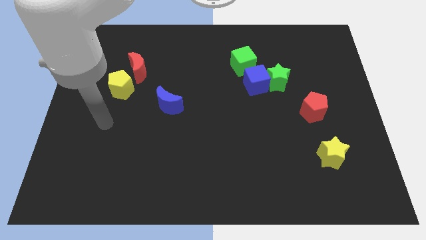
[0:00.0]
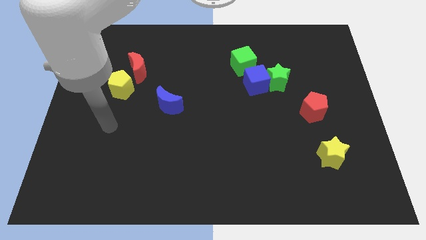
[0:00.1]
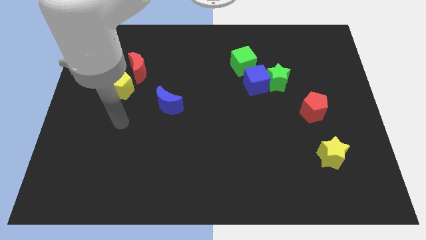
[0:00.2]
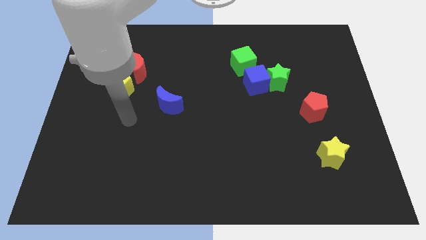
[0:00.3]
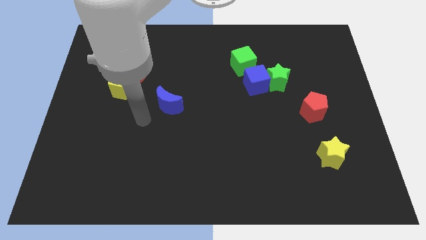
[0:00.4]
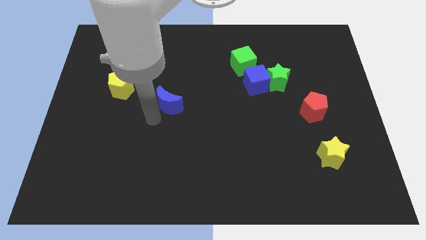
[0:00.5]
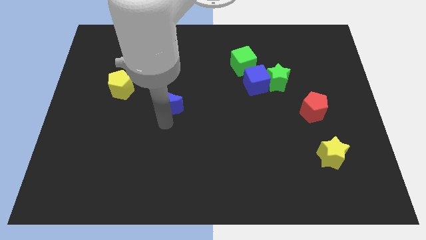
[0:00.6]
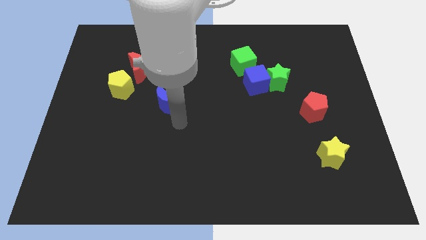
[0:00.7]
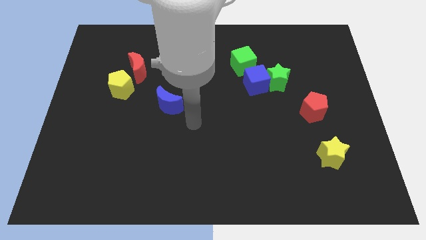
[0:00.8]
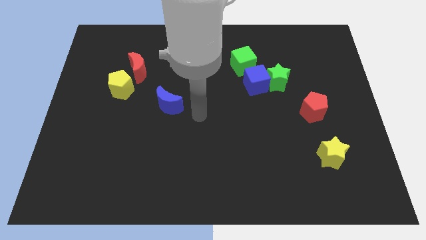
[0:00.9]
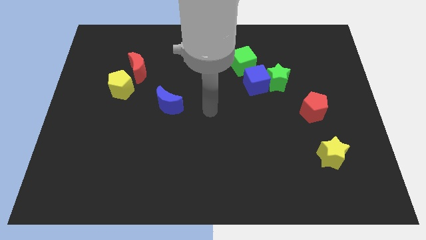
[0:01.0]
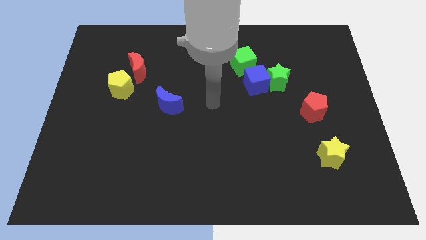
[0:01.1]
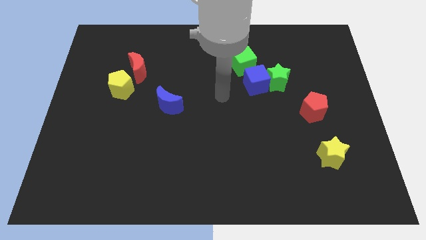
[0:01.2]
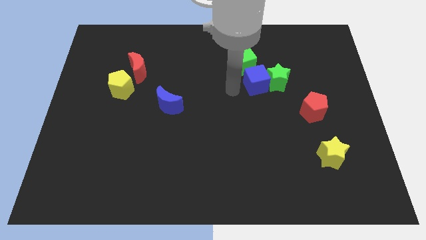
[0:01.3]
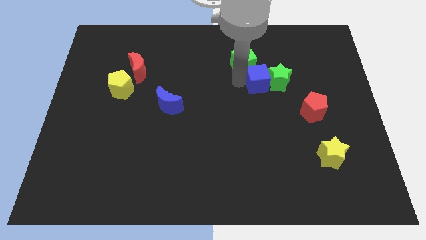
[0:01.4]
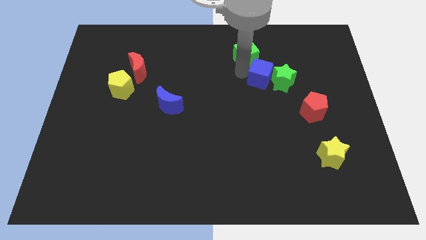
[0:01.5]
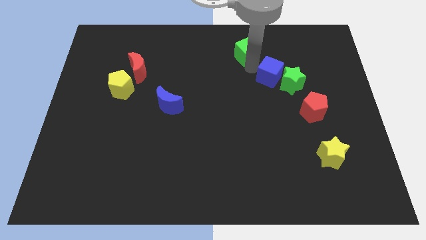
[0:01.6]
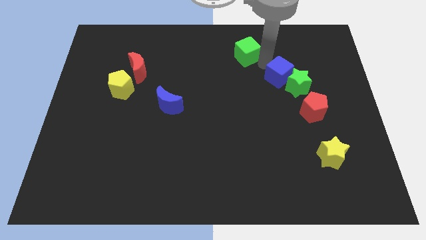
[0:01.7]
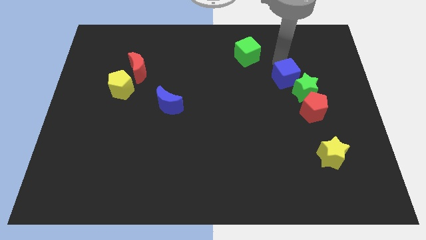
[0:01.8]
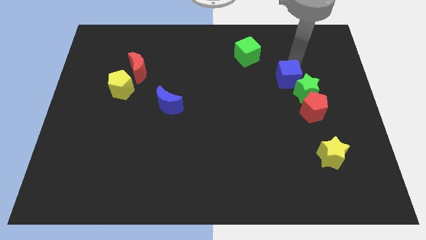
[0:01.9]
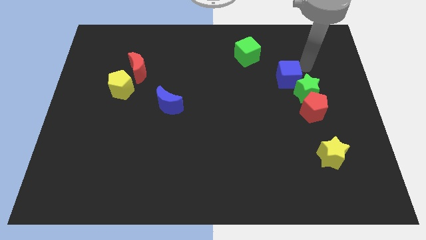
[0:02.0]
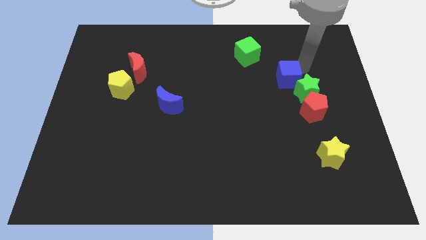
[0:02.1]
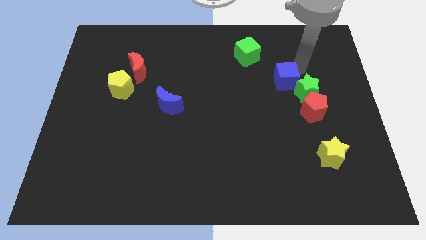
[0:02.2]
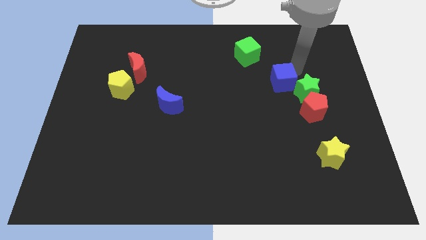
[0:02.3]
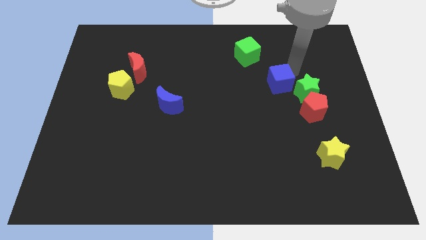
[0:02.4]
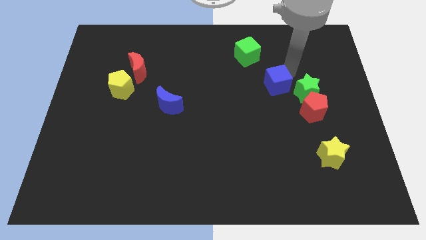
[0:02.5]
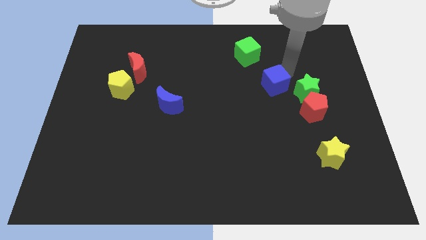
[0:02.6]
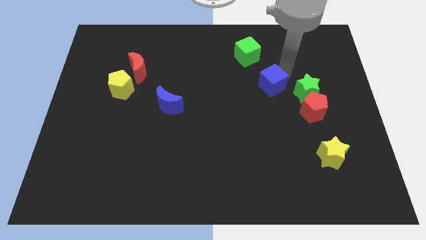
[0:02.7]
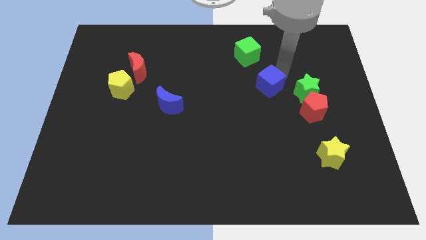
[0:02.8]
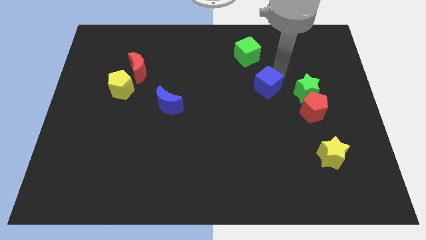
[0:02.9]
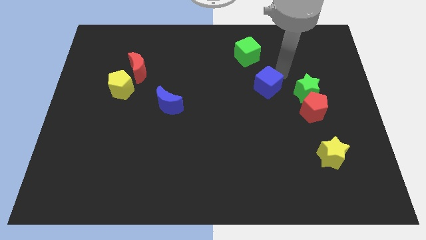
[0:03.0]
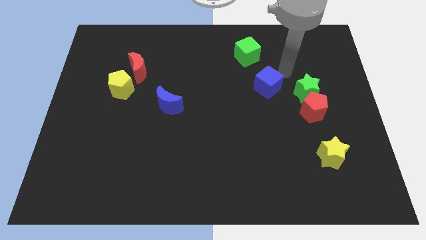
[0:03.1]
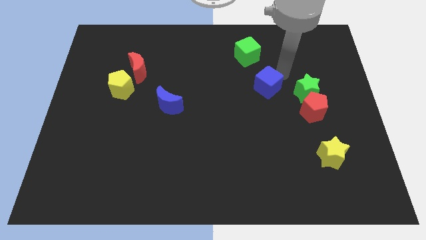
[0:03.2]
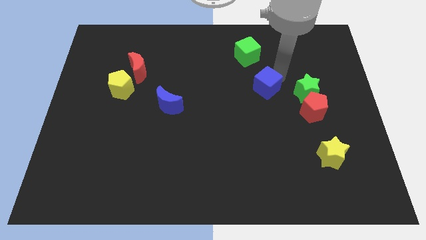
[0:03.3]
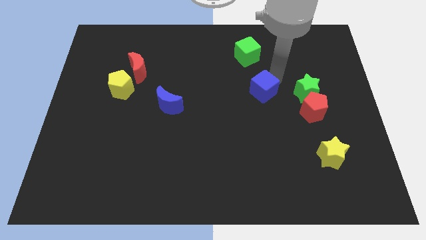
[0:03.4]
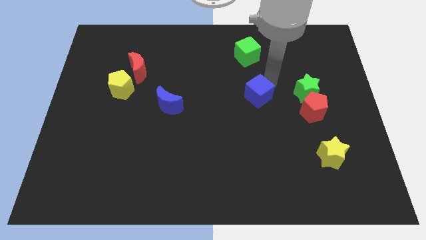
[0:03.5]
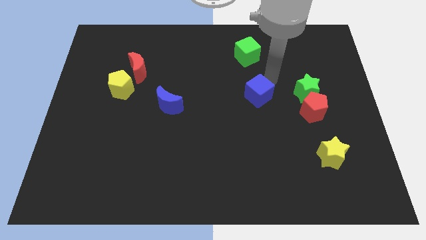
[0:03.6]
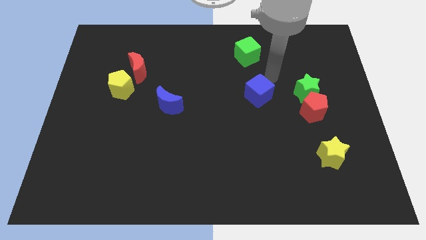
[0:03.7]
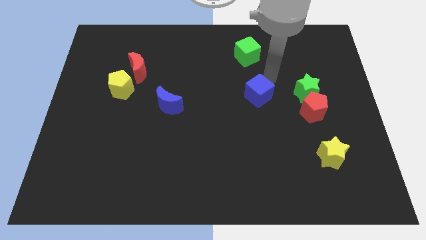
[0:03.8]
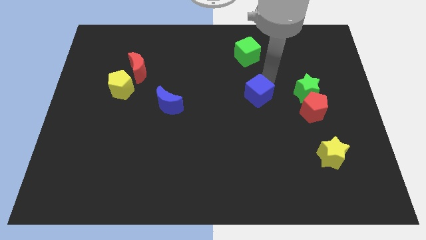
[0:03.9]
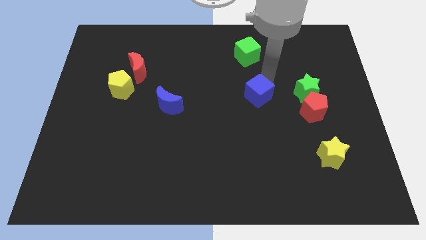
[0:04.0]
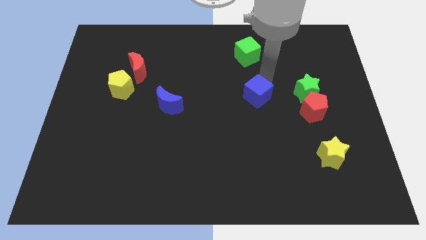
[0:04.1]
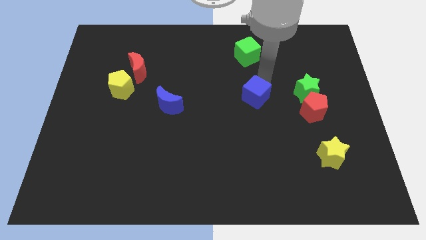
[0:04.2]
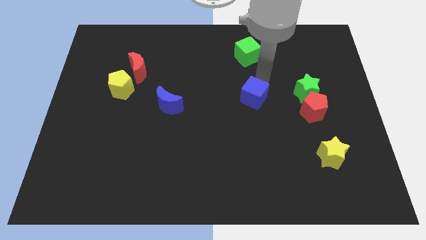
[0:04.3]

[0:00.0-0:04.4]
separate the blue cube from the green star and green cube

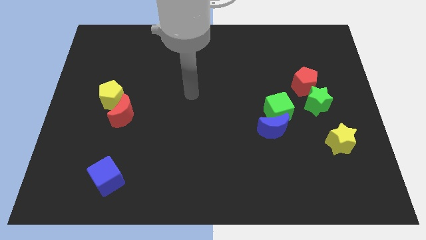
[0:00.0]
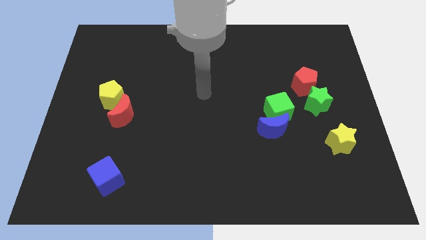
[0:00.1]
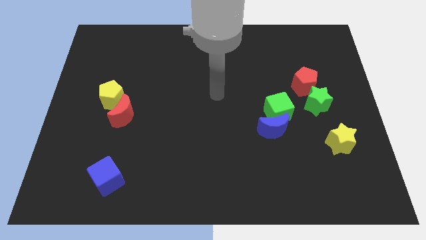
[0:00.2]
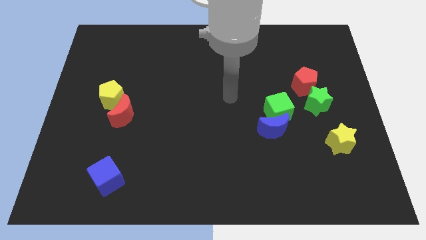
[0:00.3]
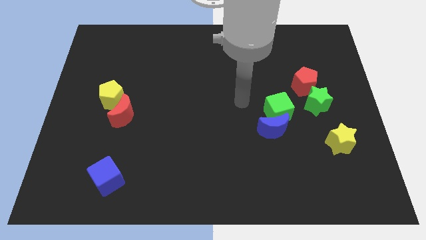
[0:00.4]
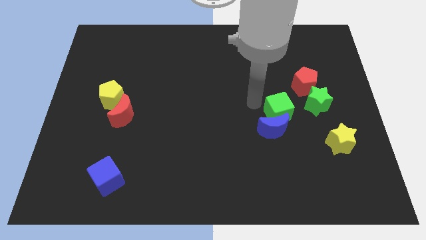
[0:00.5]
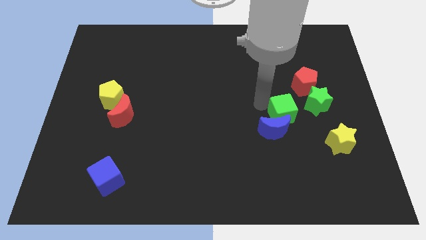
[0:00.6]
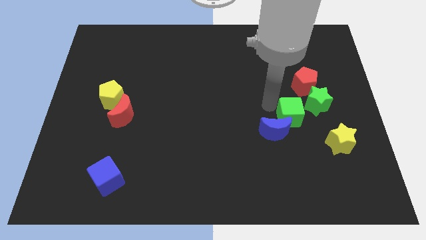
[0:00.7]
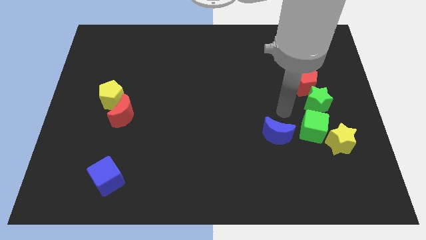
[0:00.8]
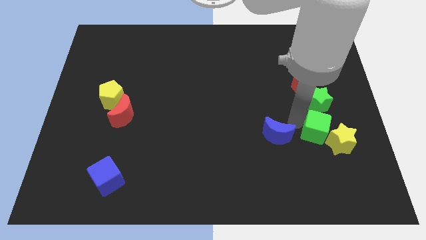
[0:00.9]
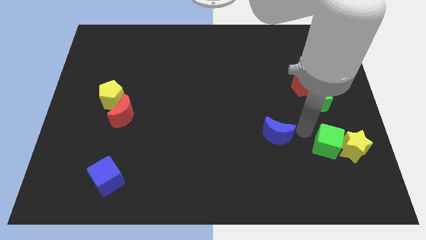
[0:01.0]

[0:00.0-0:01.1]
move the blue moon away from the green cube

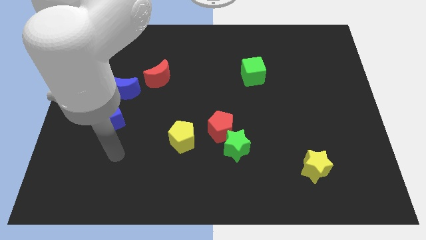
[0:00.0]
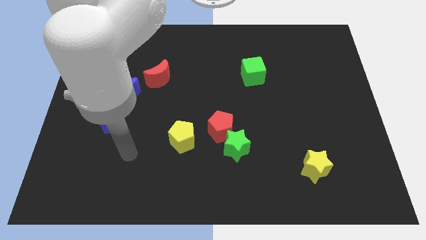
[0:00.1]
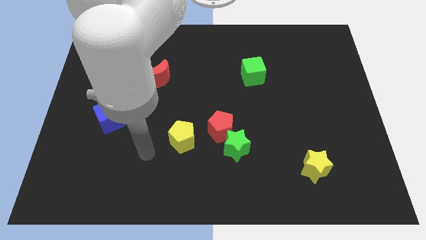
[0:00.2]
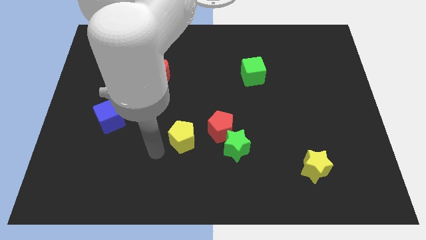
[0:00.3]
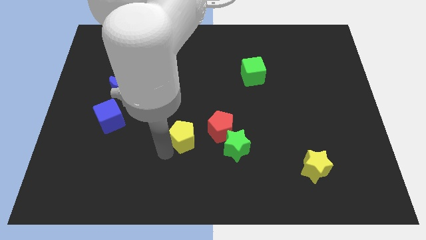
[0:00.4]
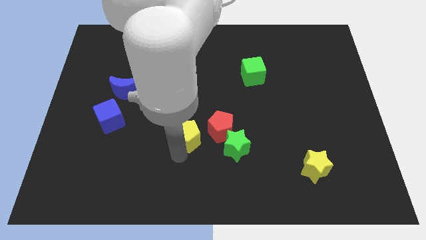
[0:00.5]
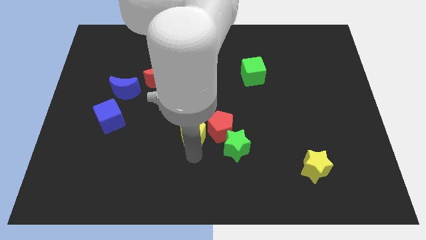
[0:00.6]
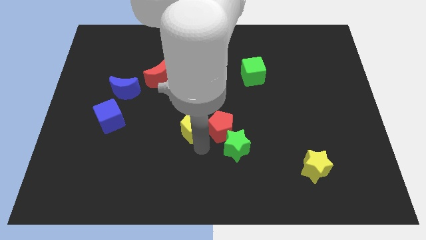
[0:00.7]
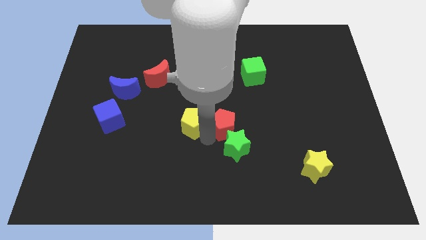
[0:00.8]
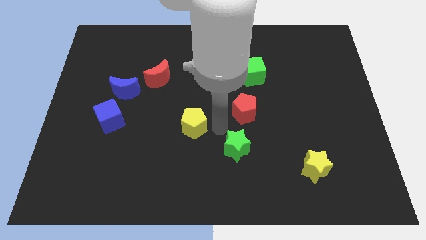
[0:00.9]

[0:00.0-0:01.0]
move the green star away from the red pentagon

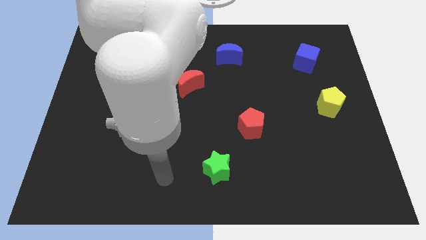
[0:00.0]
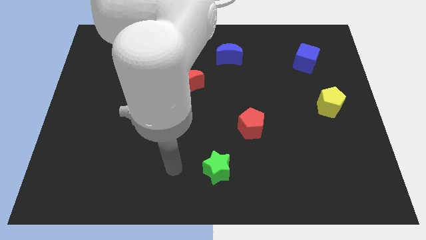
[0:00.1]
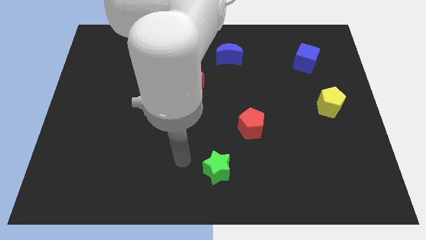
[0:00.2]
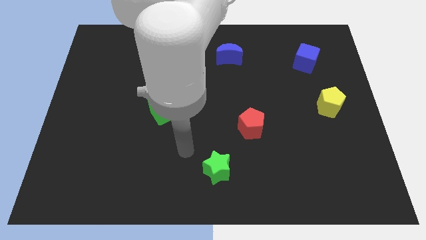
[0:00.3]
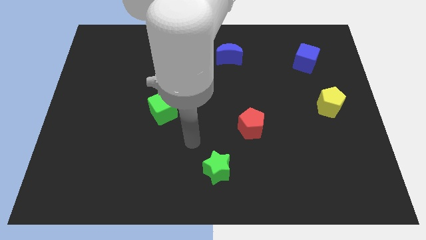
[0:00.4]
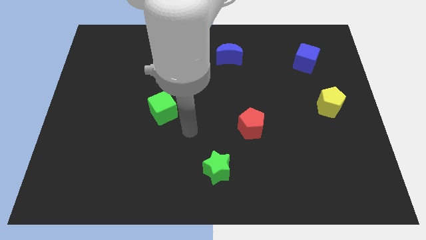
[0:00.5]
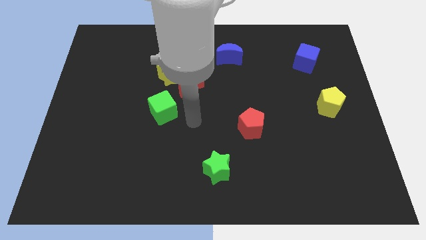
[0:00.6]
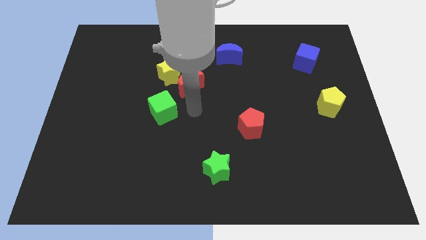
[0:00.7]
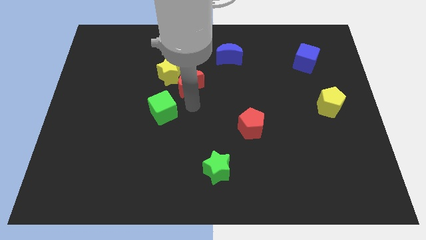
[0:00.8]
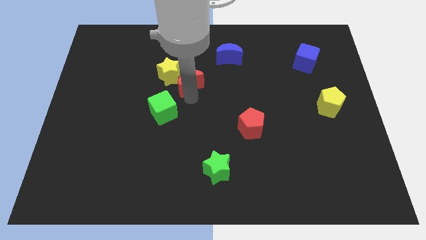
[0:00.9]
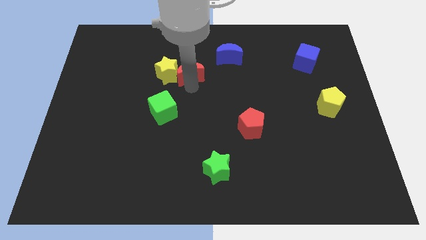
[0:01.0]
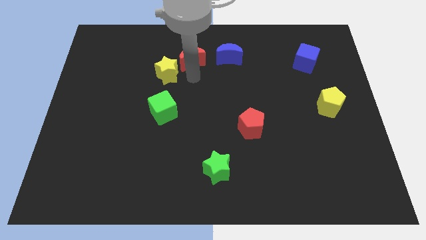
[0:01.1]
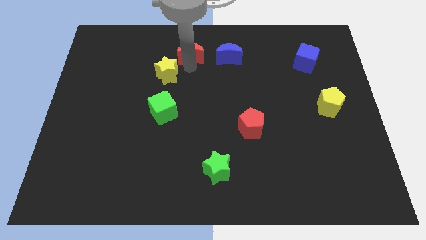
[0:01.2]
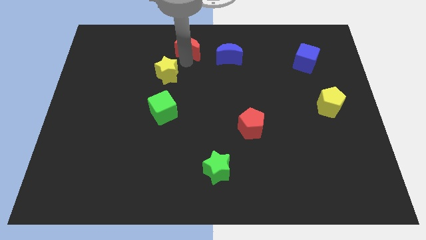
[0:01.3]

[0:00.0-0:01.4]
pull the yellow star apart from the red moon

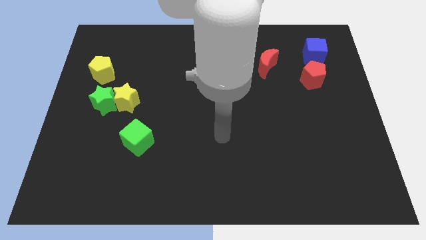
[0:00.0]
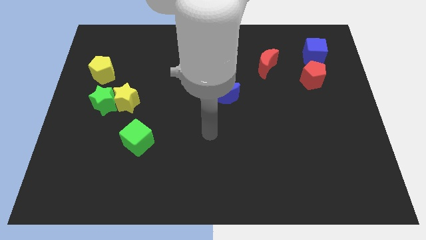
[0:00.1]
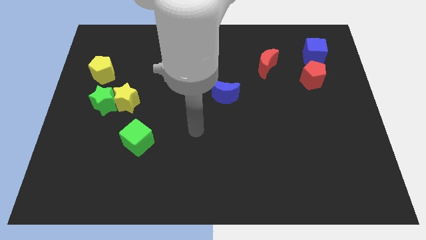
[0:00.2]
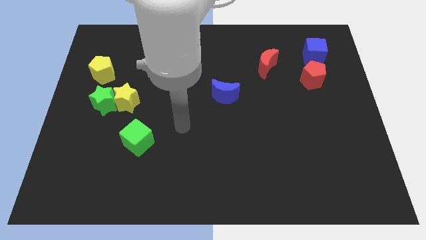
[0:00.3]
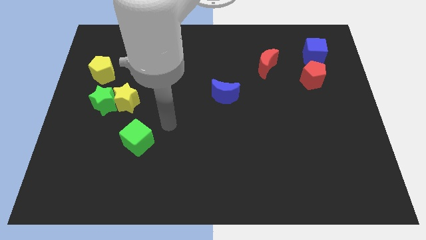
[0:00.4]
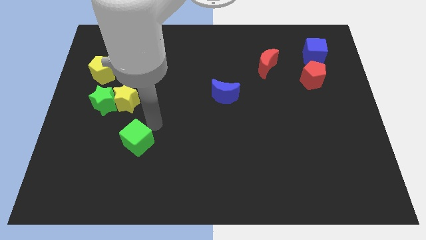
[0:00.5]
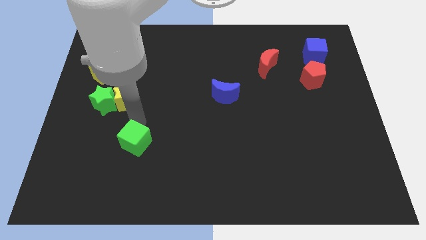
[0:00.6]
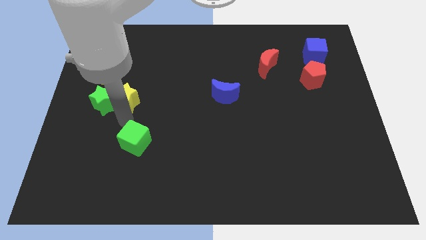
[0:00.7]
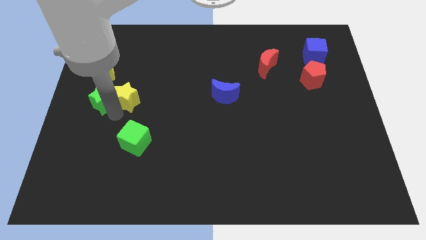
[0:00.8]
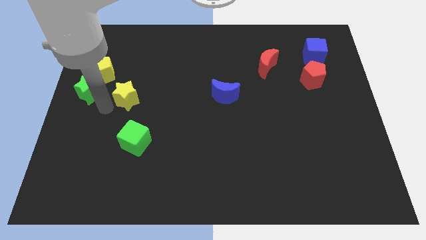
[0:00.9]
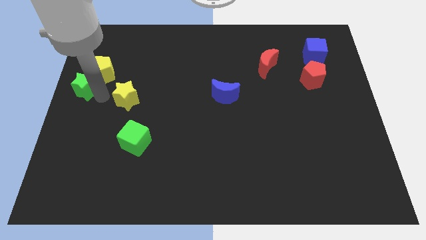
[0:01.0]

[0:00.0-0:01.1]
separate the yellow star from the green star

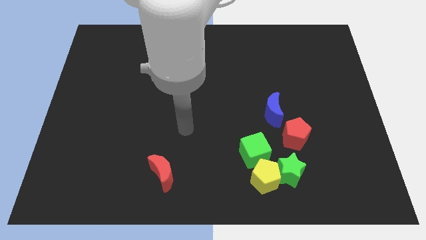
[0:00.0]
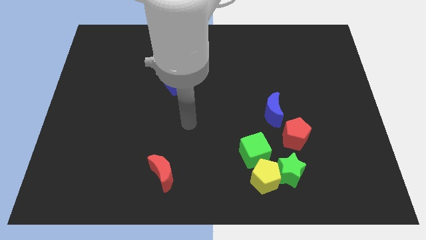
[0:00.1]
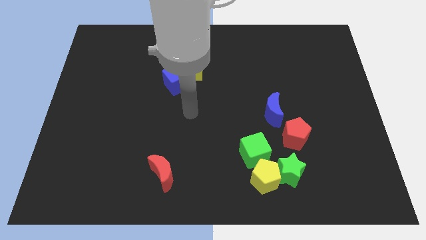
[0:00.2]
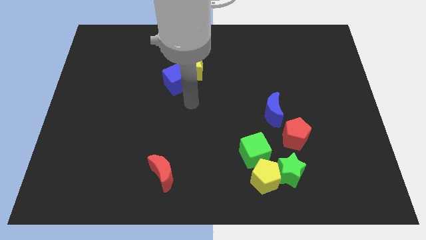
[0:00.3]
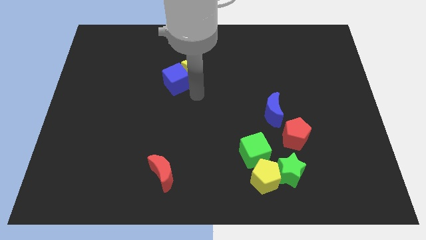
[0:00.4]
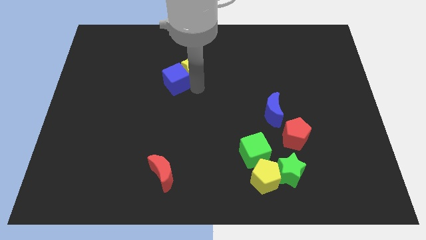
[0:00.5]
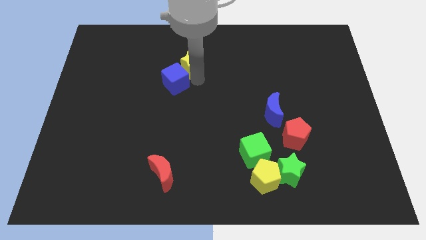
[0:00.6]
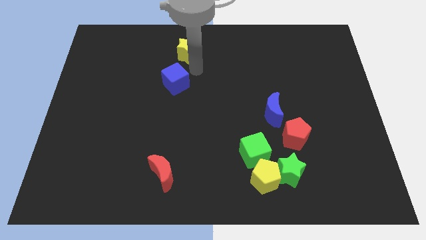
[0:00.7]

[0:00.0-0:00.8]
separate the blue cube from the yellow star
